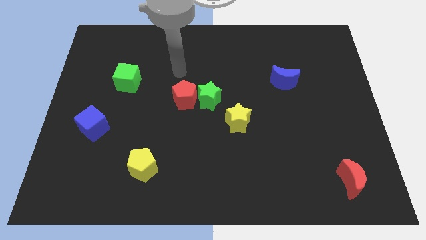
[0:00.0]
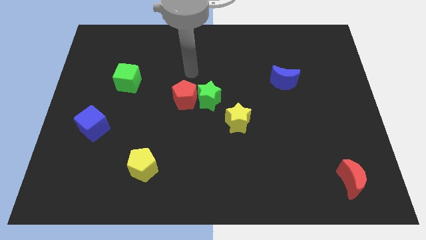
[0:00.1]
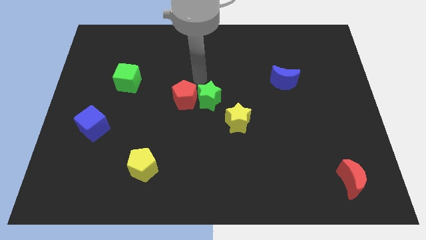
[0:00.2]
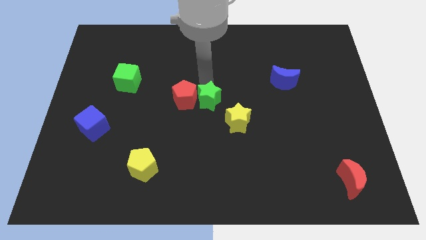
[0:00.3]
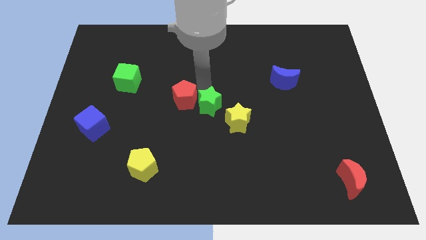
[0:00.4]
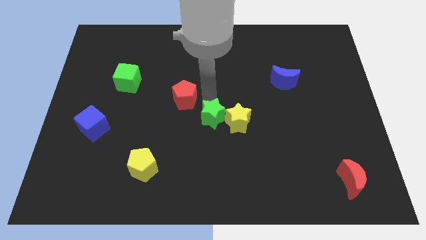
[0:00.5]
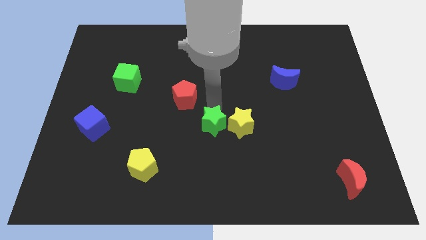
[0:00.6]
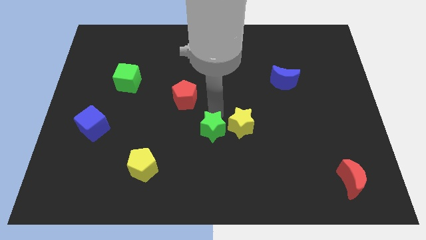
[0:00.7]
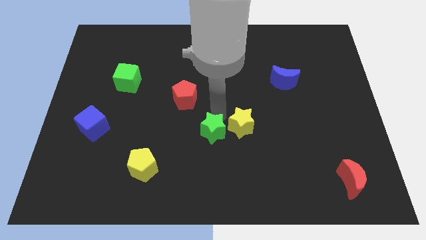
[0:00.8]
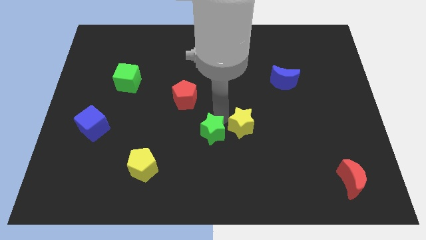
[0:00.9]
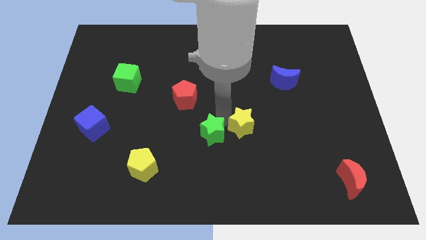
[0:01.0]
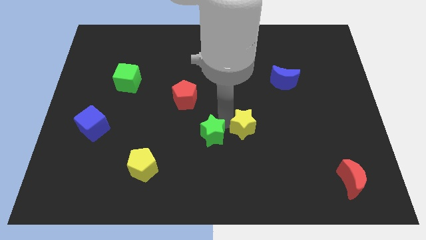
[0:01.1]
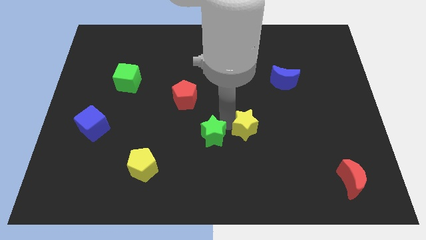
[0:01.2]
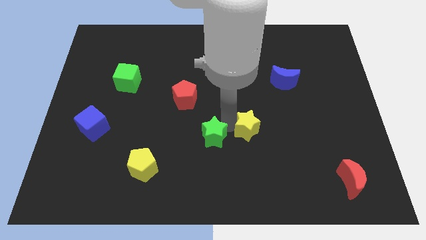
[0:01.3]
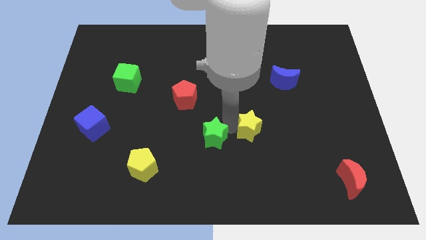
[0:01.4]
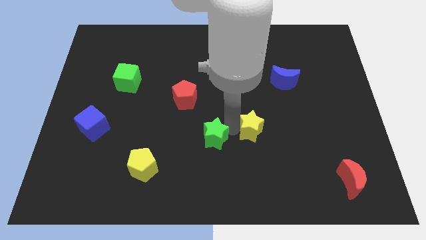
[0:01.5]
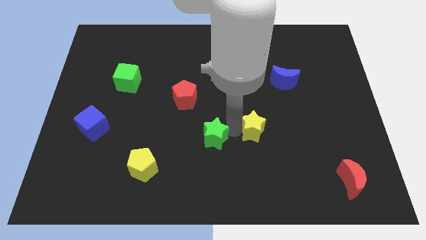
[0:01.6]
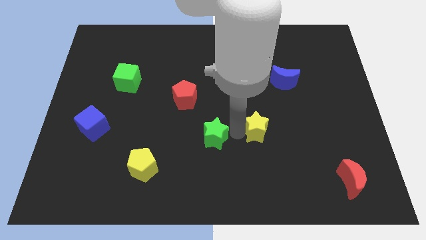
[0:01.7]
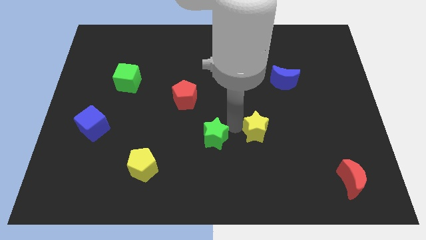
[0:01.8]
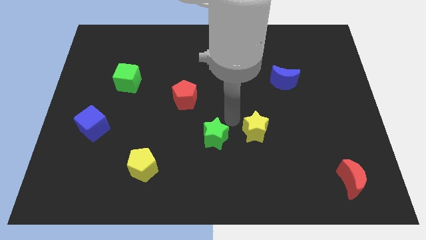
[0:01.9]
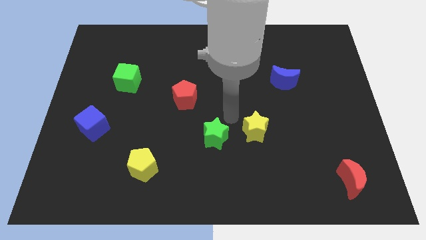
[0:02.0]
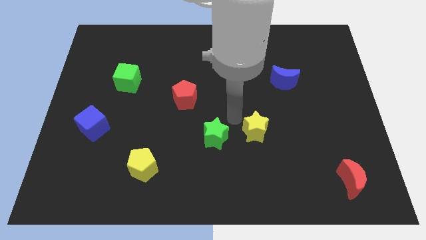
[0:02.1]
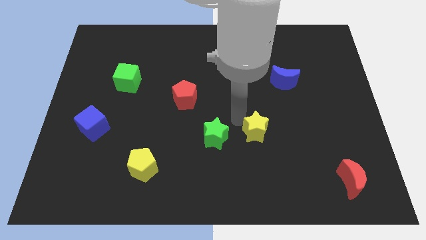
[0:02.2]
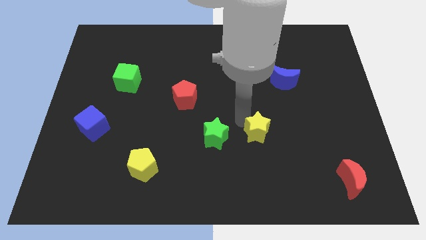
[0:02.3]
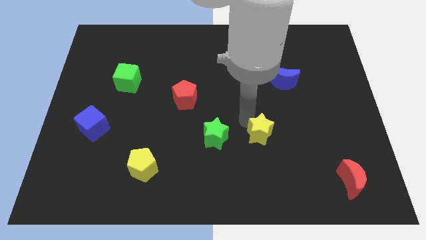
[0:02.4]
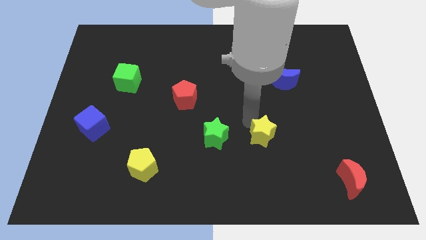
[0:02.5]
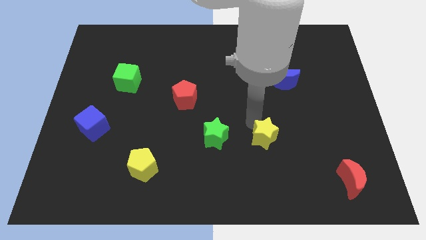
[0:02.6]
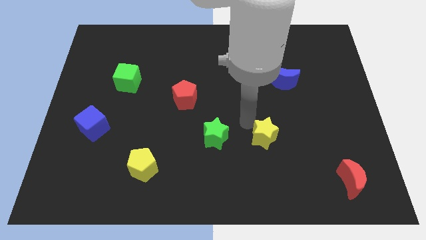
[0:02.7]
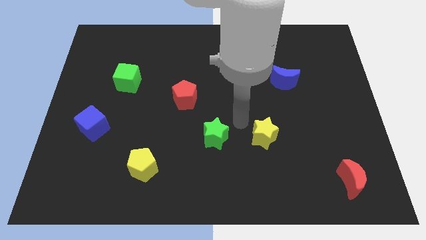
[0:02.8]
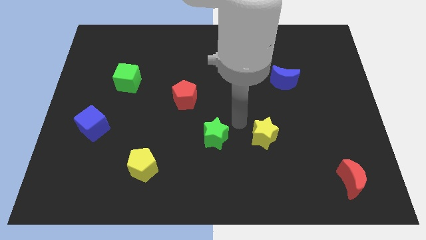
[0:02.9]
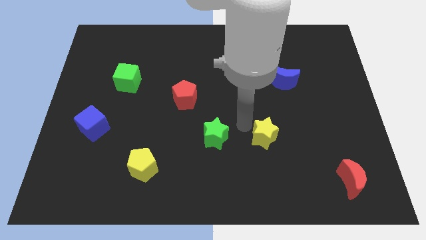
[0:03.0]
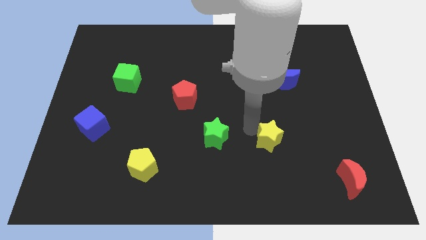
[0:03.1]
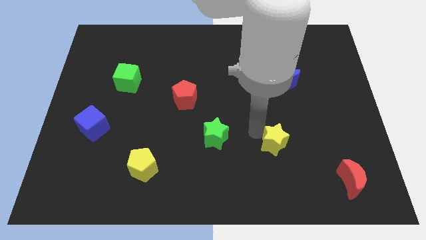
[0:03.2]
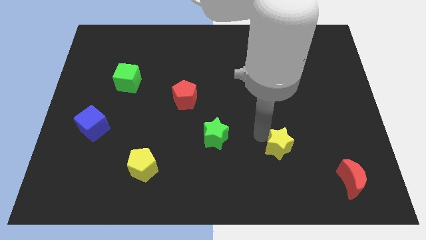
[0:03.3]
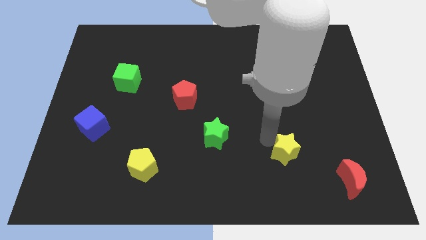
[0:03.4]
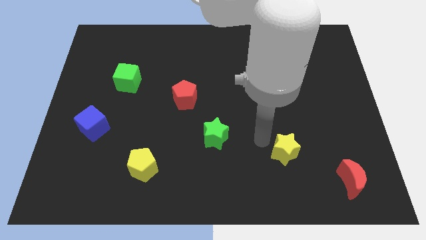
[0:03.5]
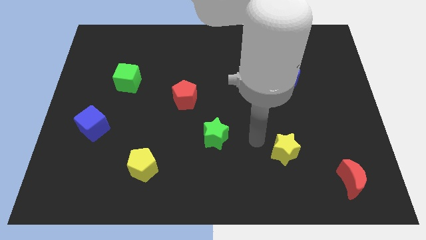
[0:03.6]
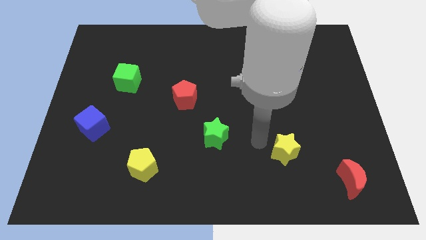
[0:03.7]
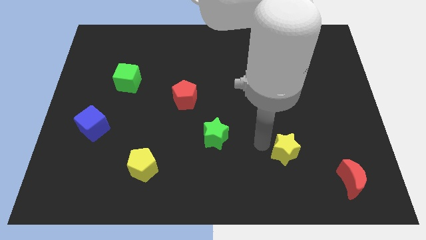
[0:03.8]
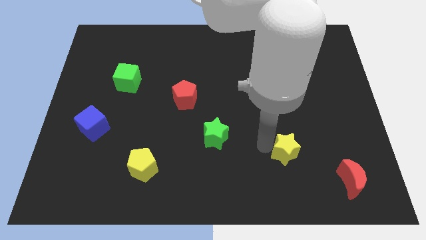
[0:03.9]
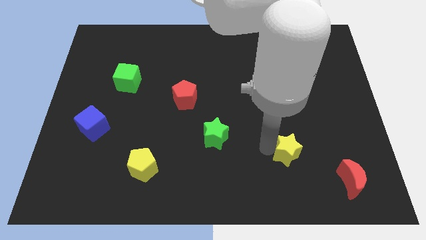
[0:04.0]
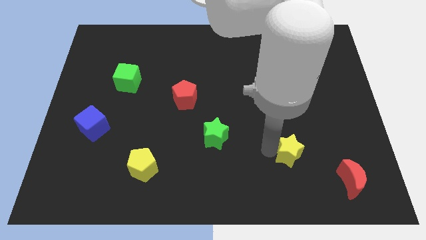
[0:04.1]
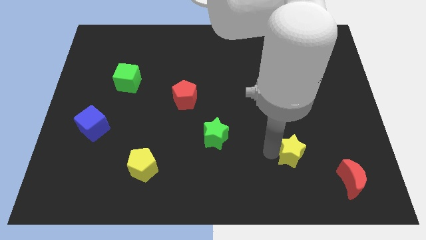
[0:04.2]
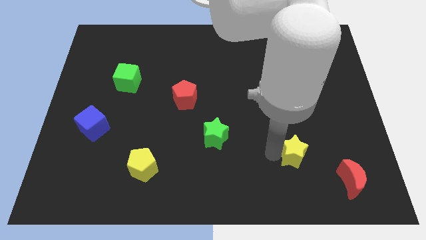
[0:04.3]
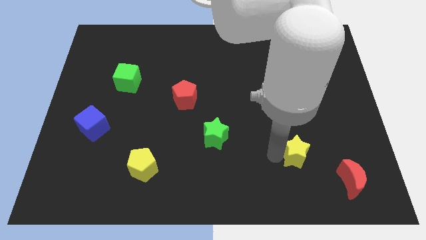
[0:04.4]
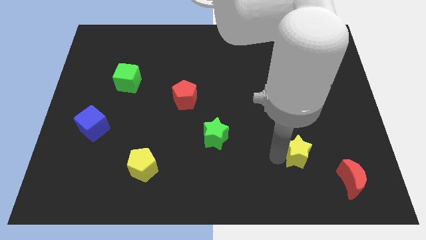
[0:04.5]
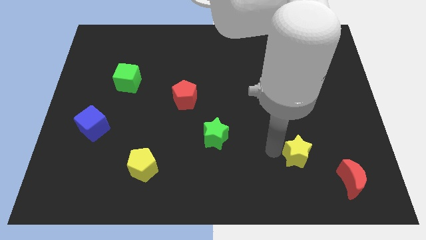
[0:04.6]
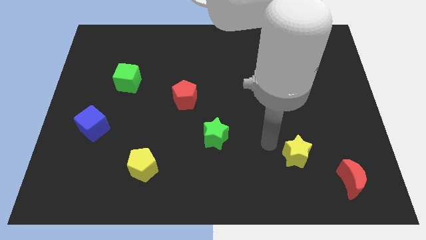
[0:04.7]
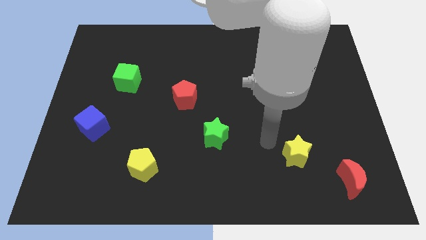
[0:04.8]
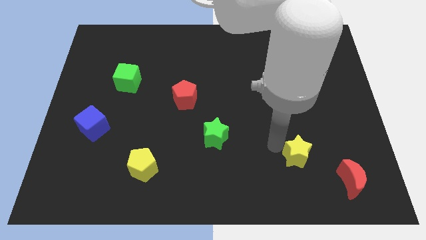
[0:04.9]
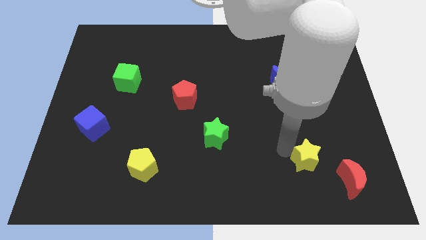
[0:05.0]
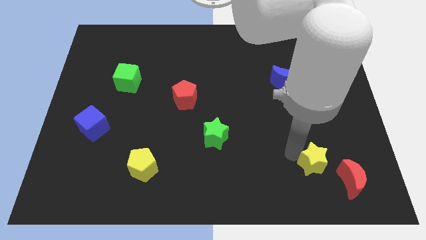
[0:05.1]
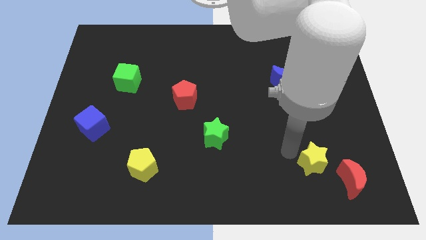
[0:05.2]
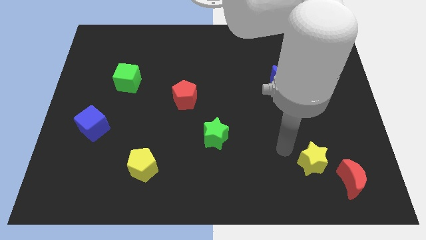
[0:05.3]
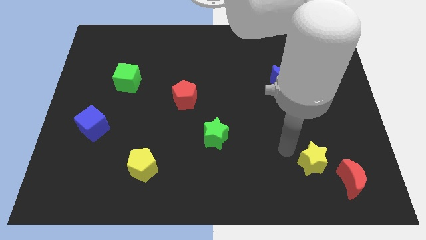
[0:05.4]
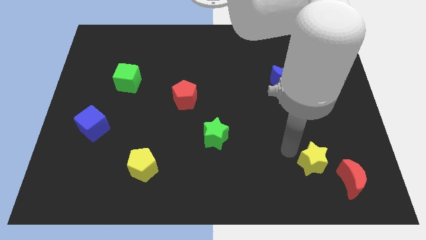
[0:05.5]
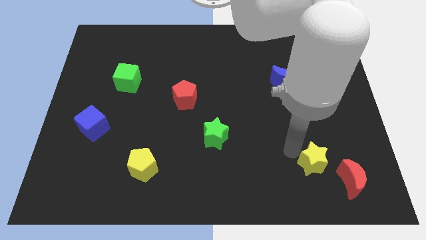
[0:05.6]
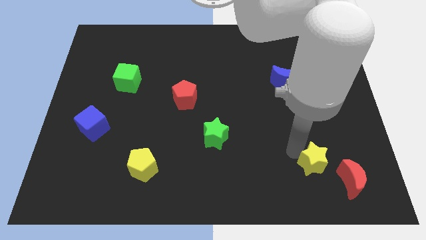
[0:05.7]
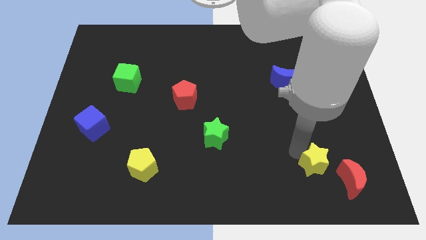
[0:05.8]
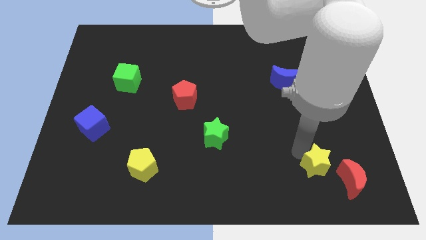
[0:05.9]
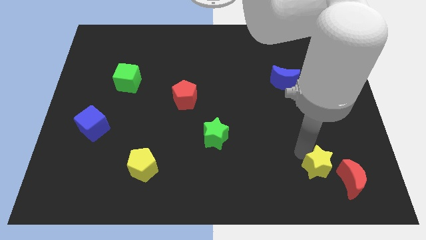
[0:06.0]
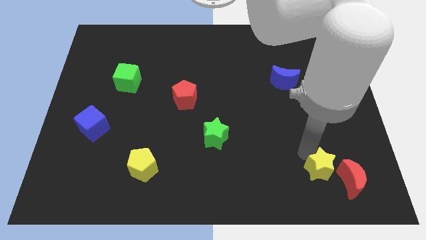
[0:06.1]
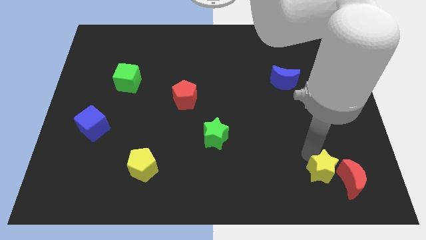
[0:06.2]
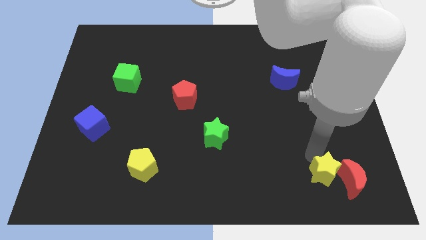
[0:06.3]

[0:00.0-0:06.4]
slide the yellow star to the red moon

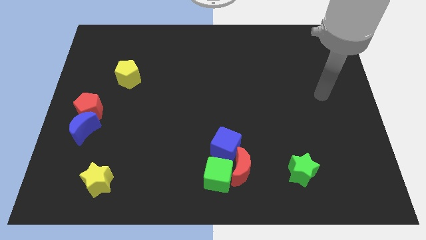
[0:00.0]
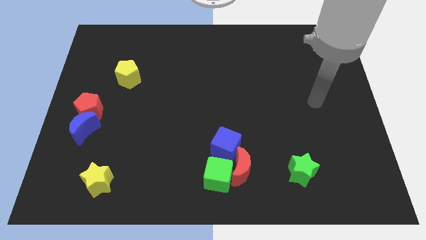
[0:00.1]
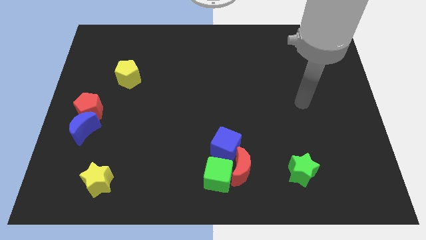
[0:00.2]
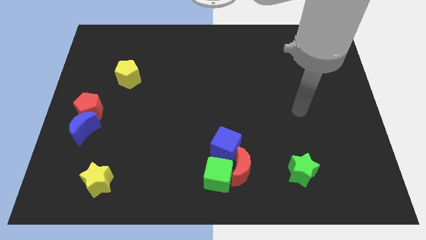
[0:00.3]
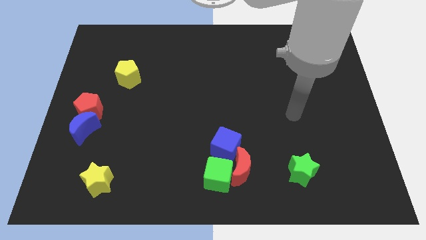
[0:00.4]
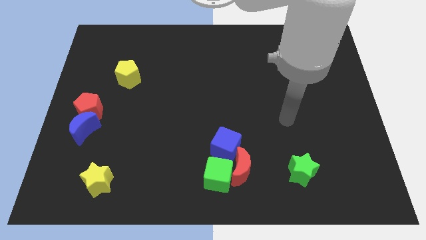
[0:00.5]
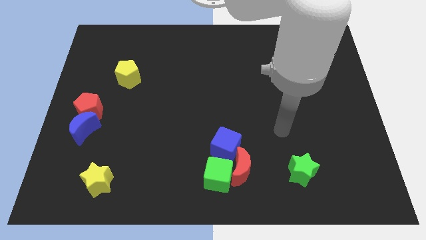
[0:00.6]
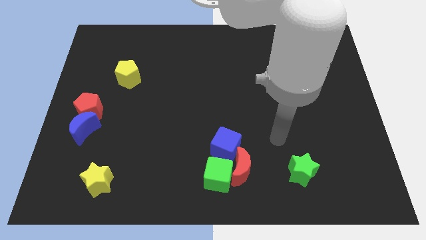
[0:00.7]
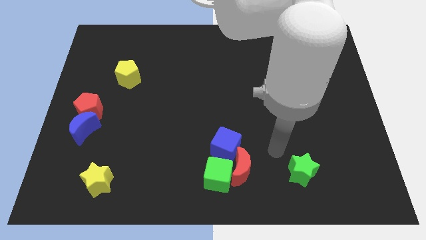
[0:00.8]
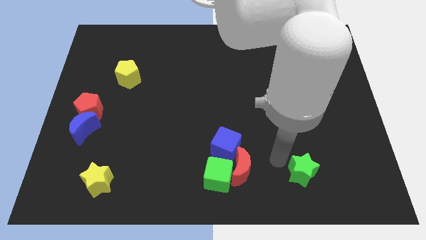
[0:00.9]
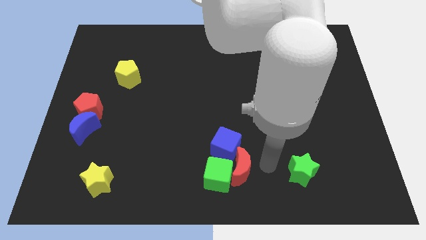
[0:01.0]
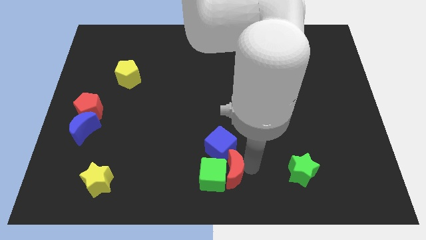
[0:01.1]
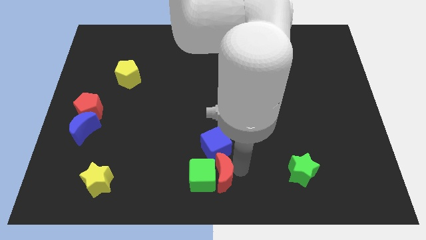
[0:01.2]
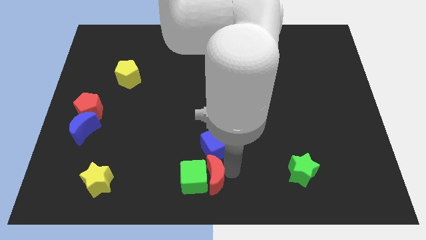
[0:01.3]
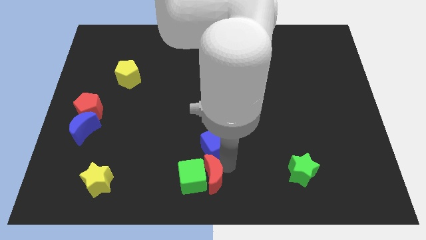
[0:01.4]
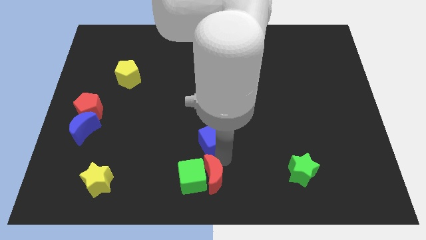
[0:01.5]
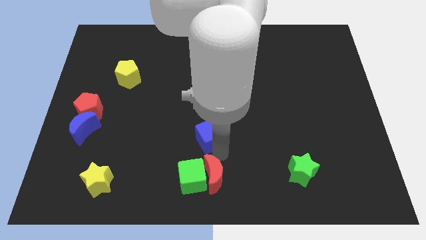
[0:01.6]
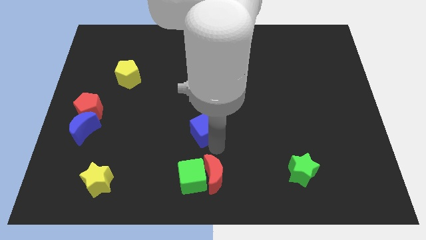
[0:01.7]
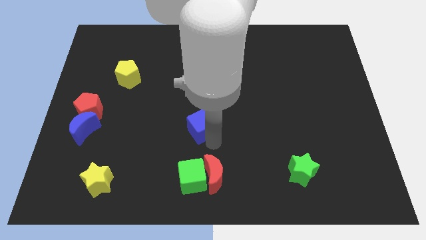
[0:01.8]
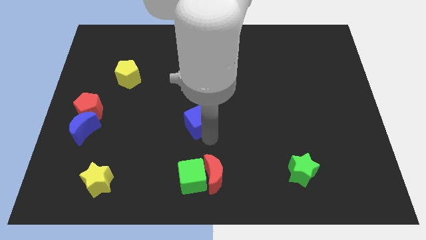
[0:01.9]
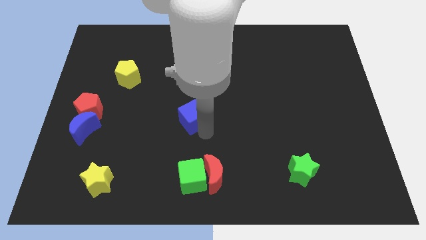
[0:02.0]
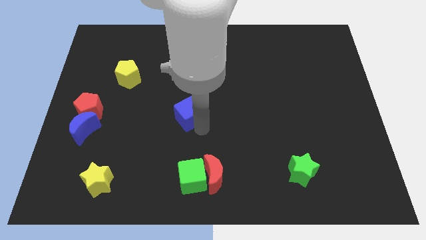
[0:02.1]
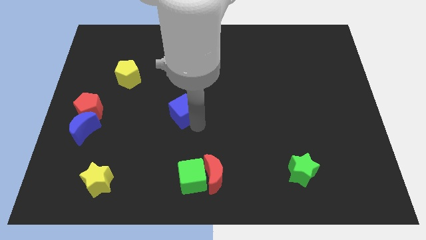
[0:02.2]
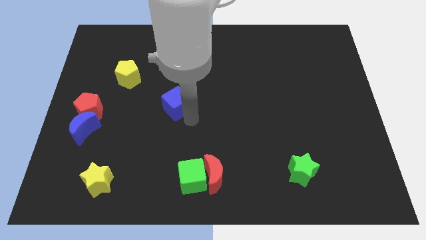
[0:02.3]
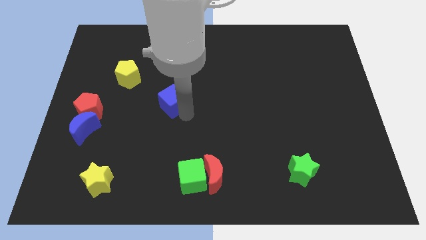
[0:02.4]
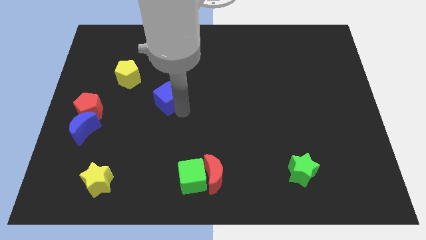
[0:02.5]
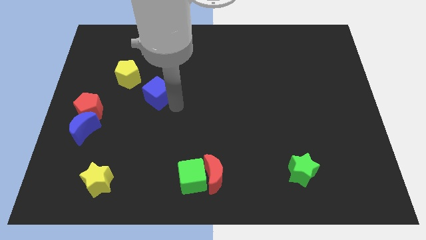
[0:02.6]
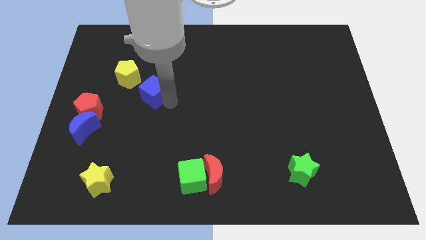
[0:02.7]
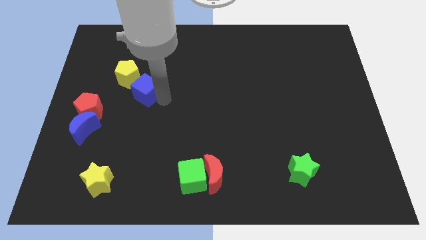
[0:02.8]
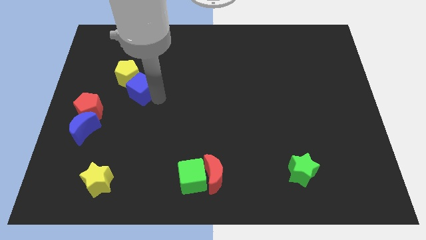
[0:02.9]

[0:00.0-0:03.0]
slide the blue cube towards the yellow pentagon
